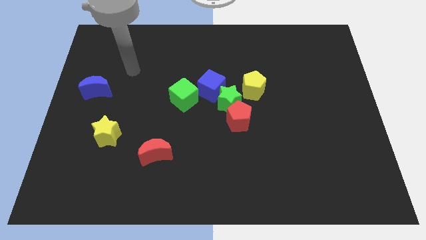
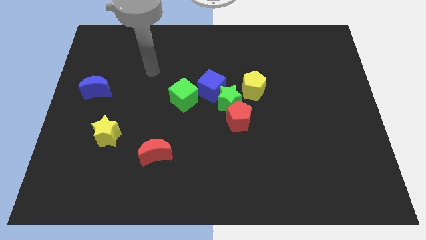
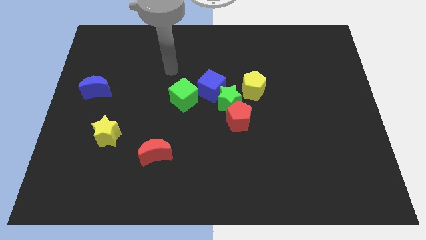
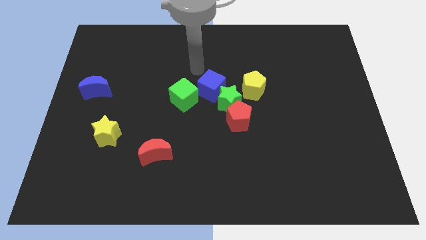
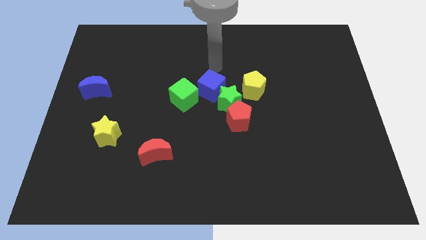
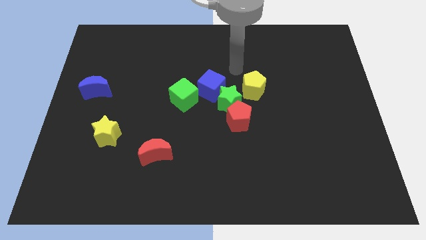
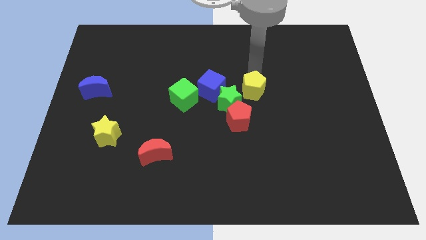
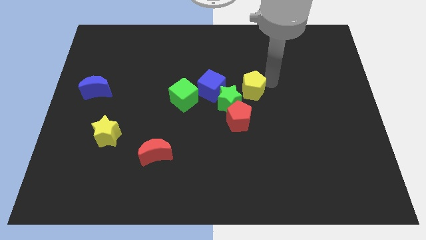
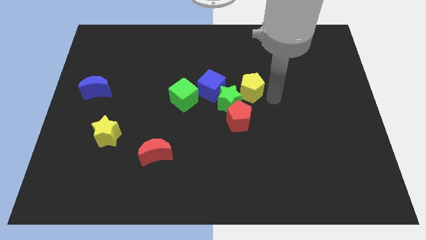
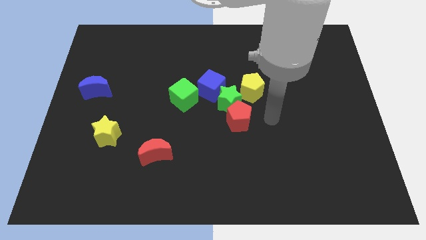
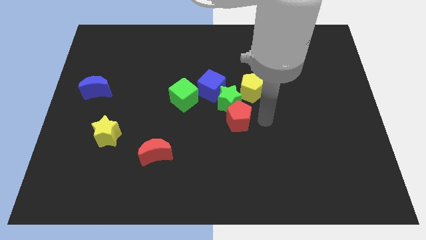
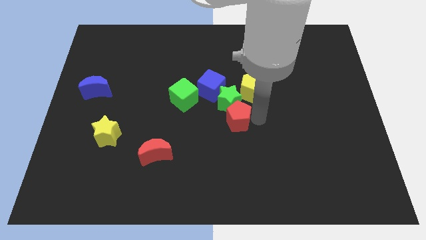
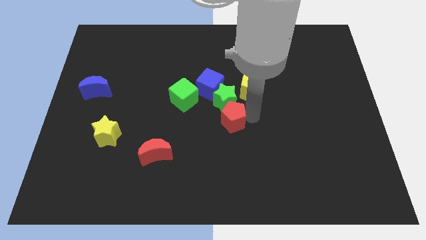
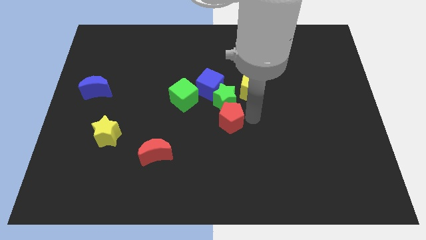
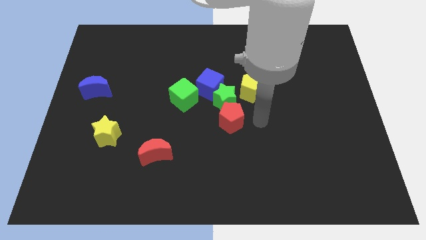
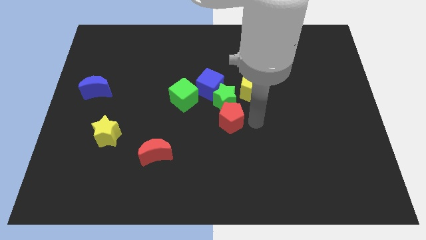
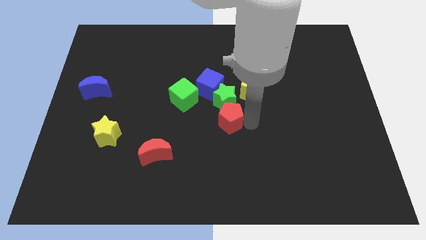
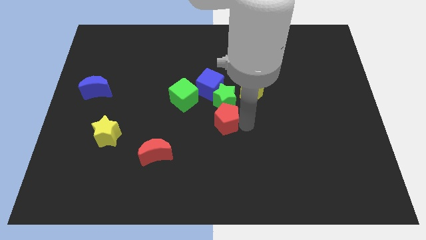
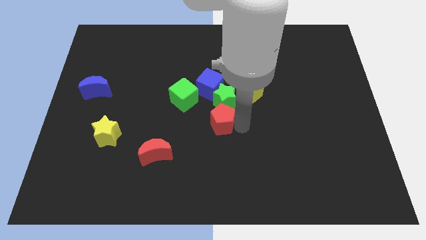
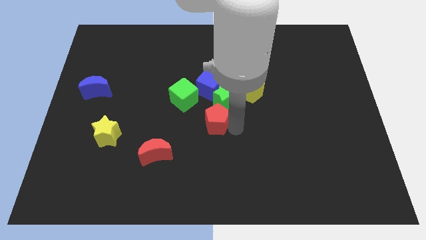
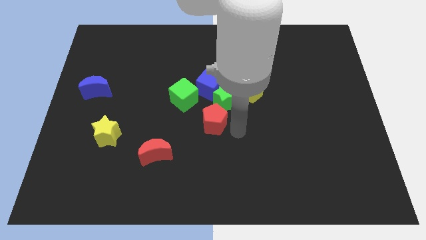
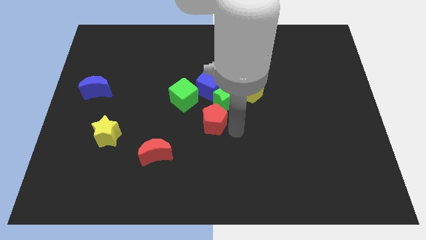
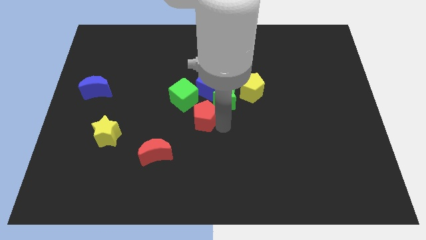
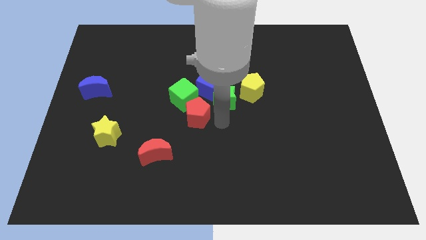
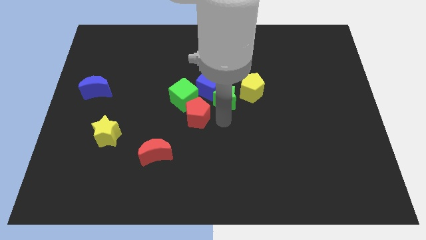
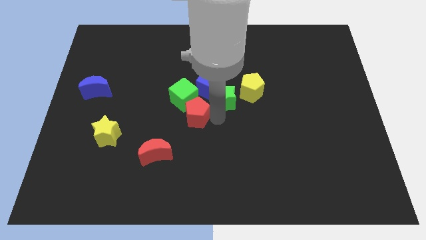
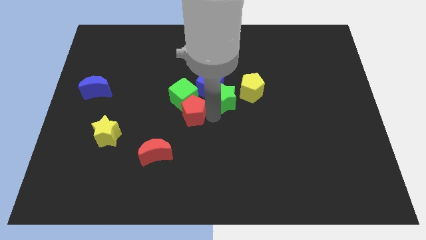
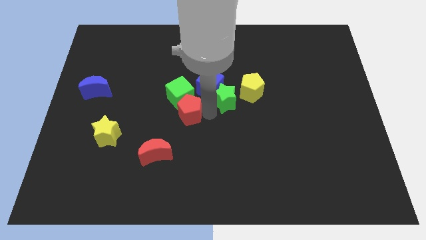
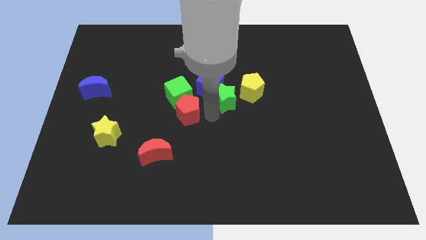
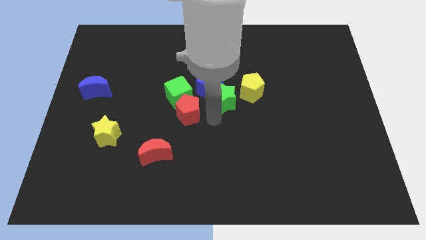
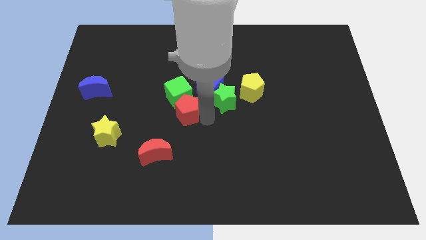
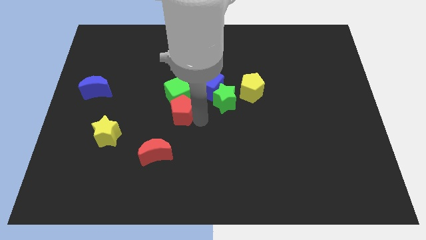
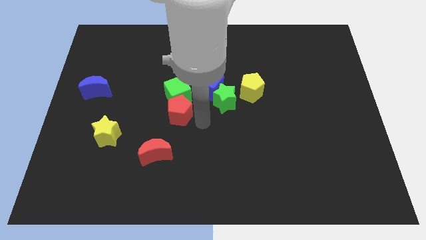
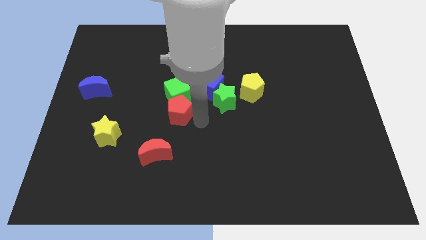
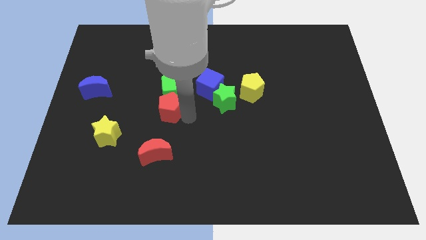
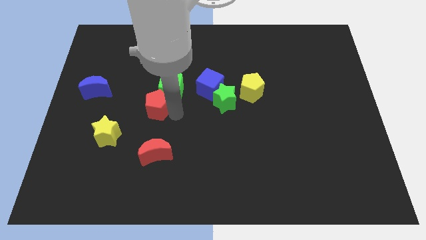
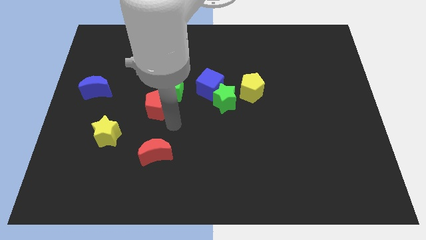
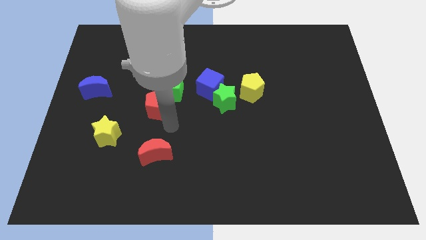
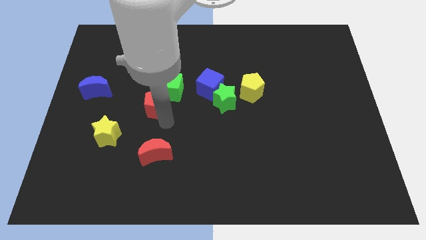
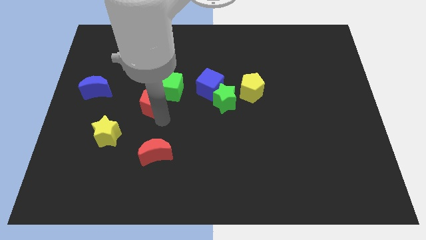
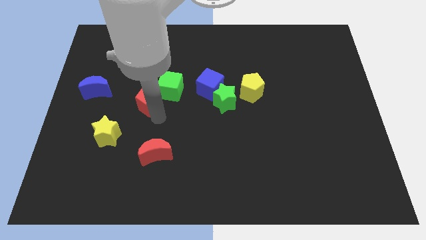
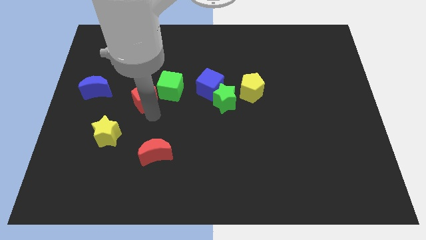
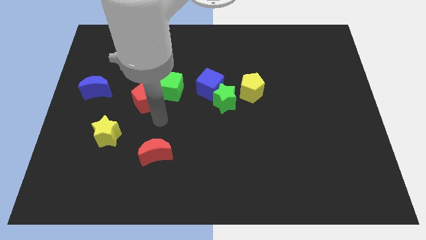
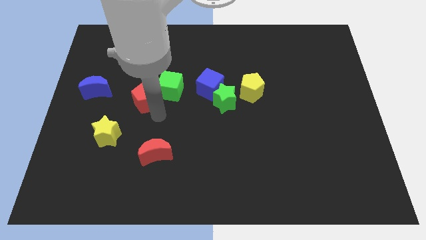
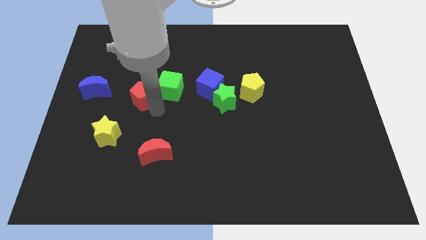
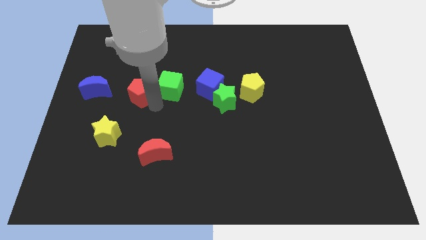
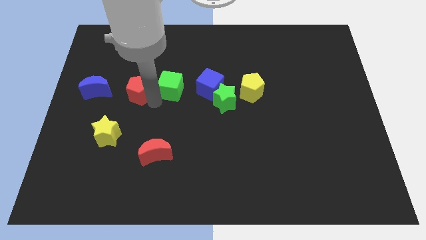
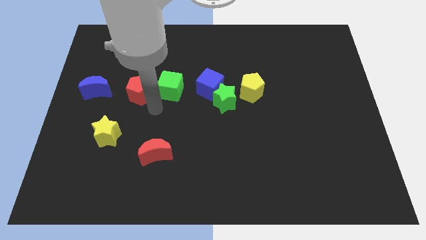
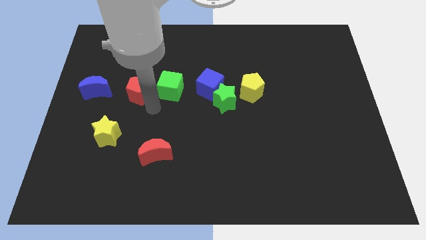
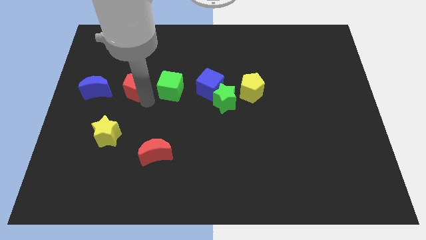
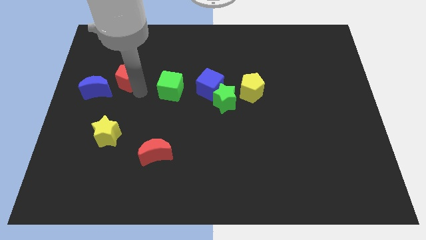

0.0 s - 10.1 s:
move the red pentagon to the top right of the blue moon

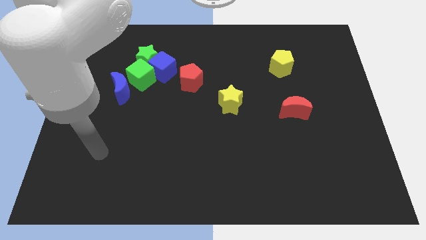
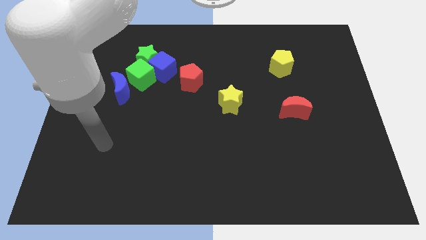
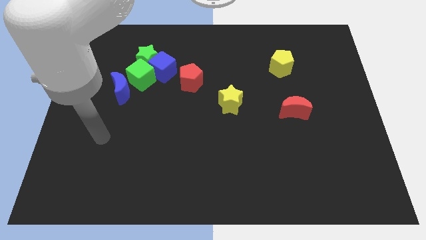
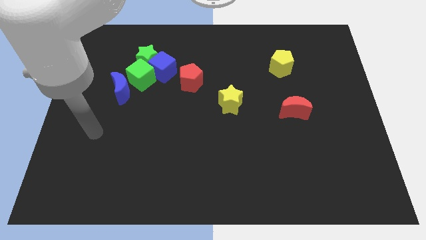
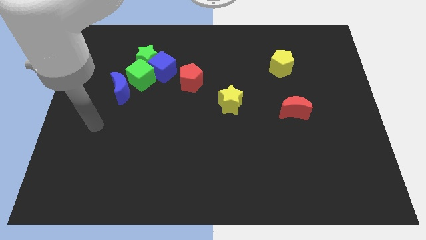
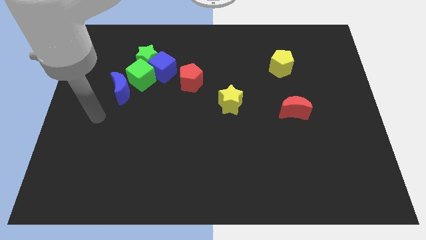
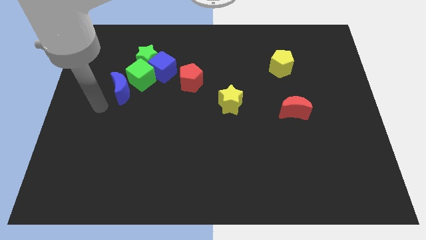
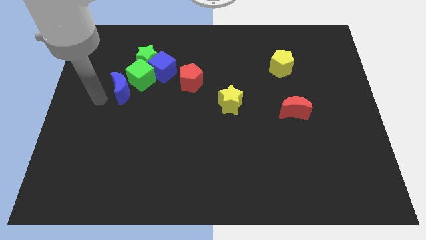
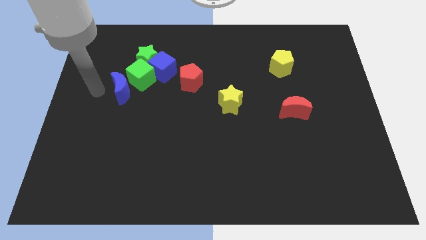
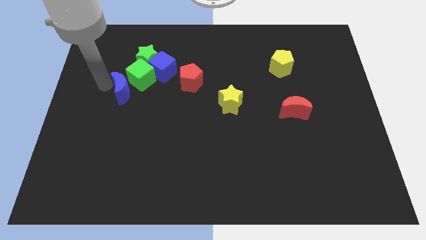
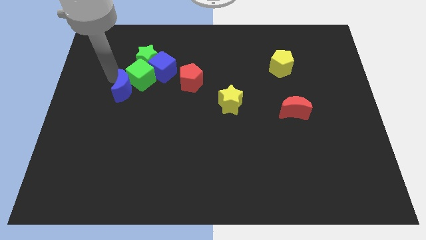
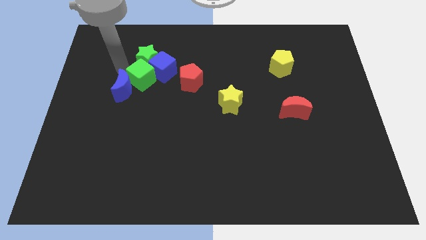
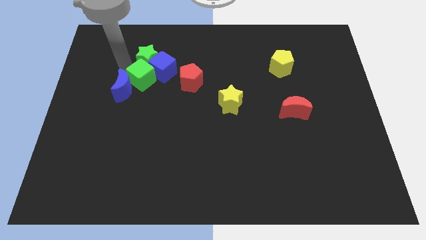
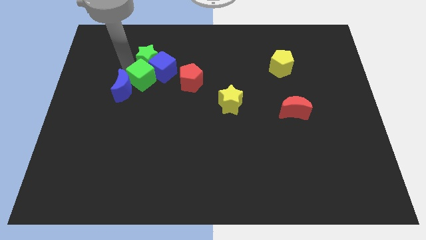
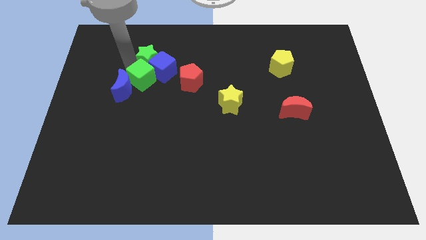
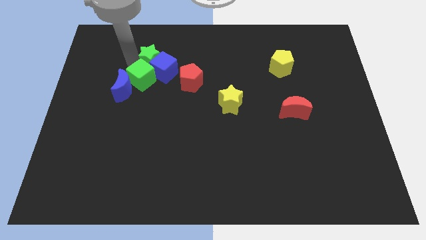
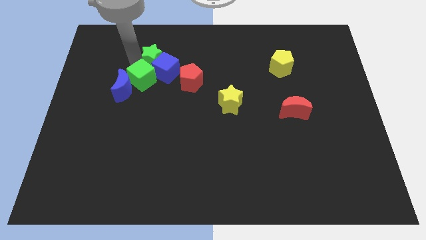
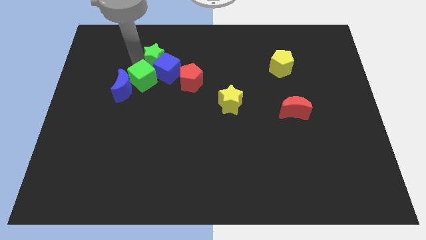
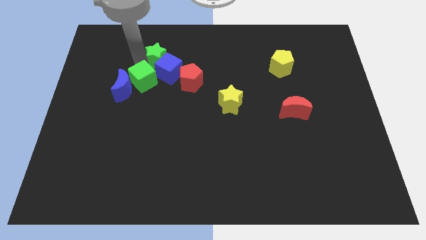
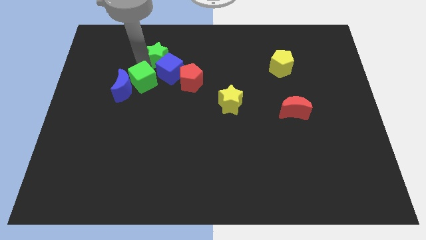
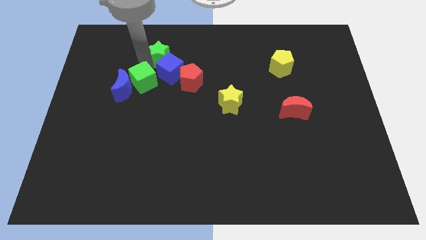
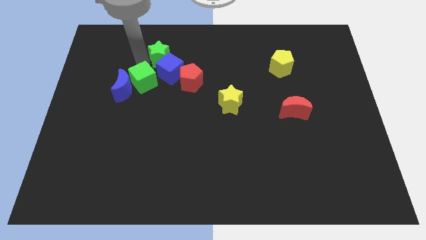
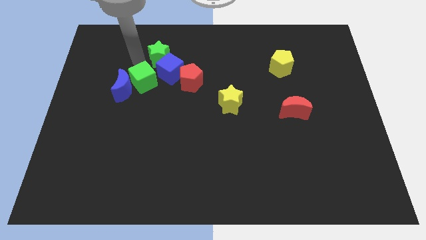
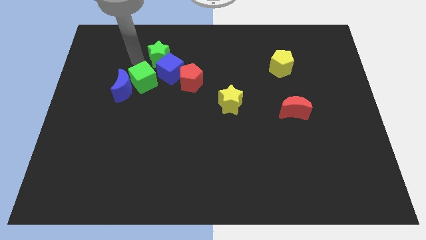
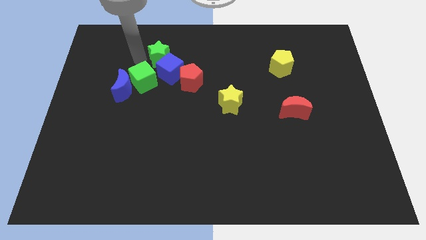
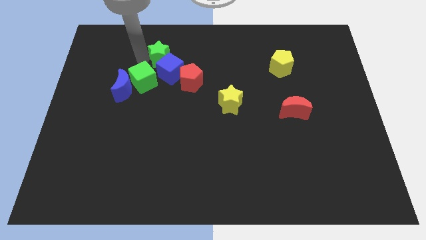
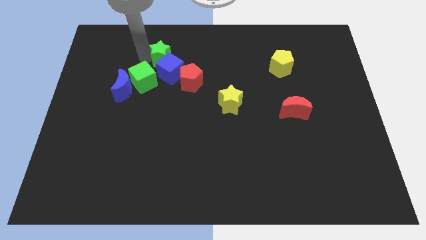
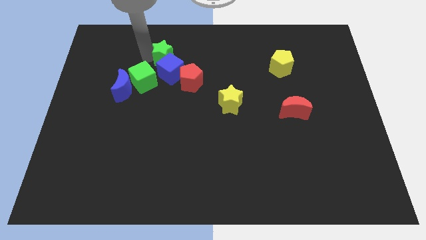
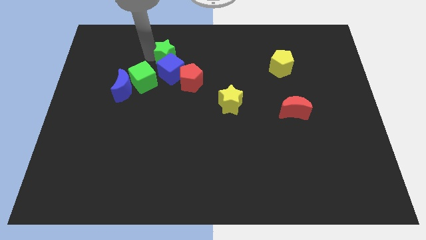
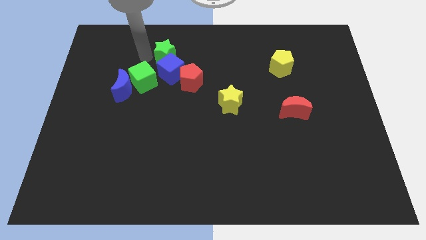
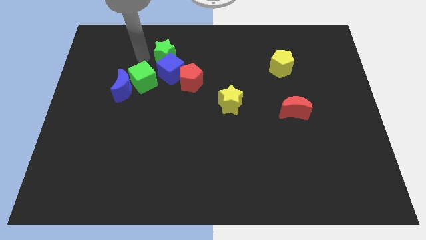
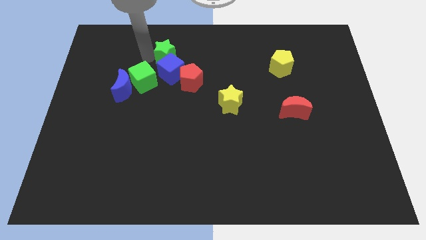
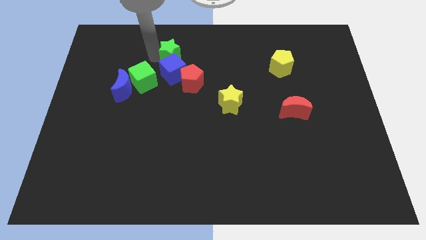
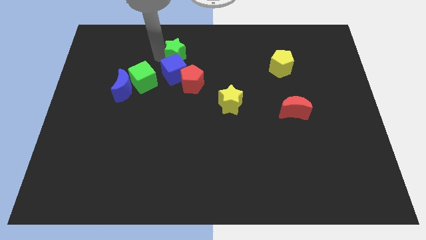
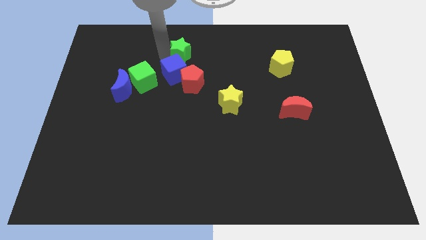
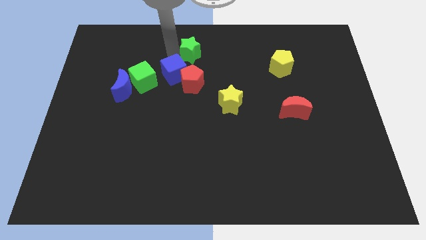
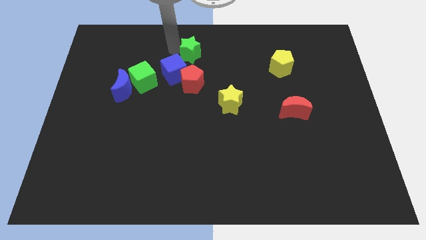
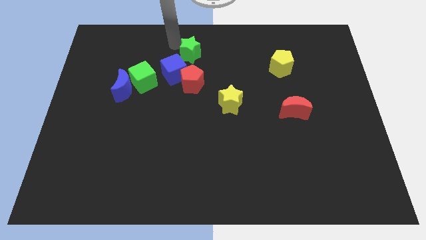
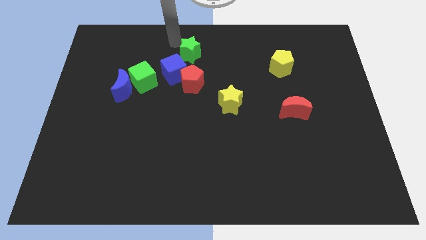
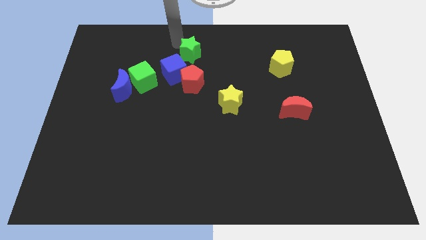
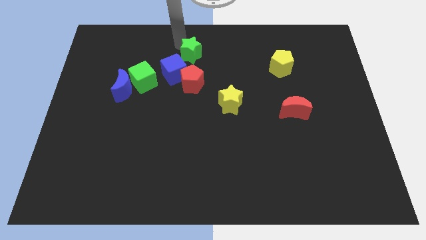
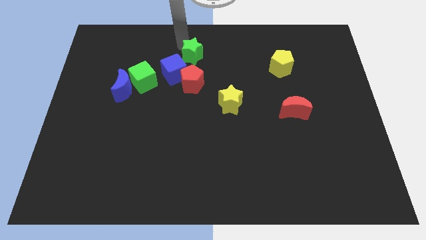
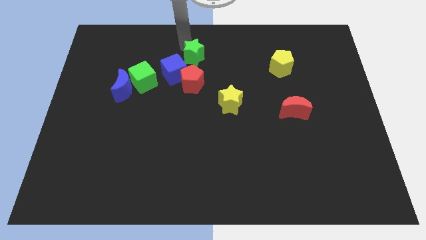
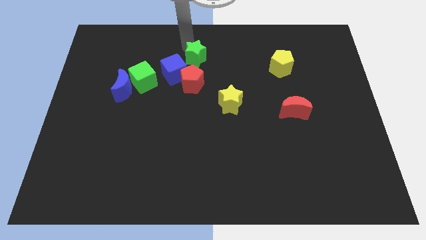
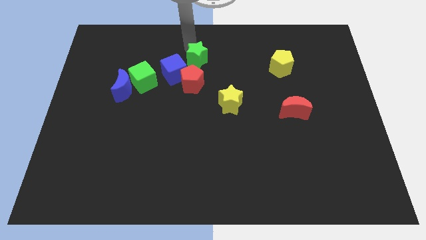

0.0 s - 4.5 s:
move the green star to the top right side of the red pentagon
